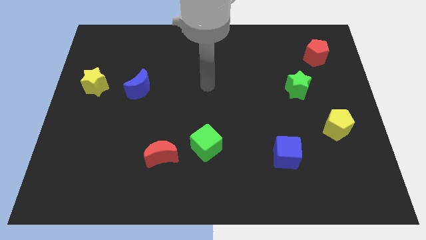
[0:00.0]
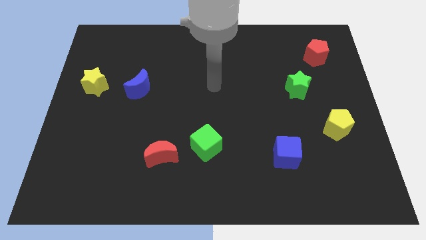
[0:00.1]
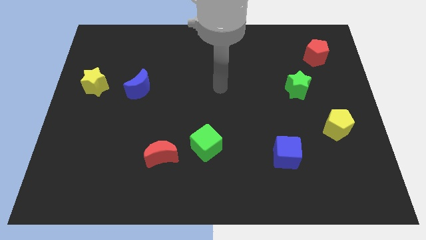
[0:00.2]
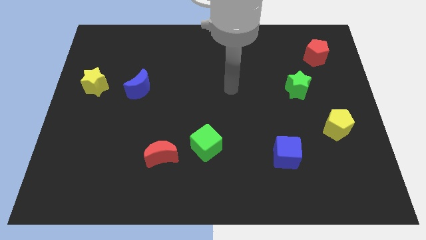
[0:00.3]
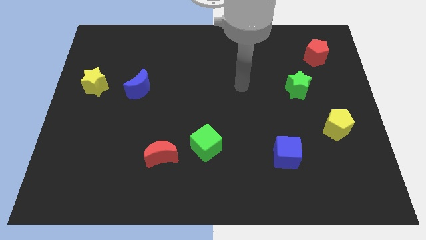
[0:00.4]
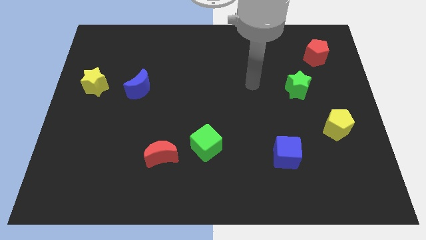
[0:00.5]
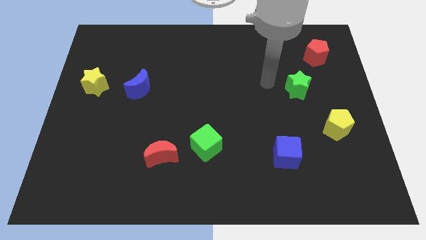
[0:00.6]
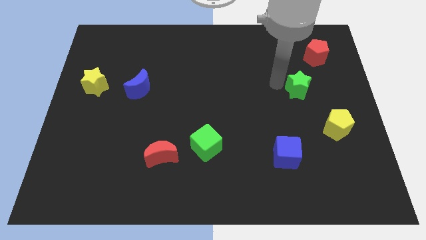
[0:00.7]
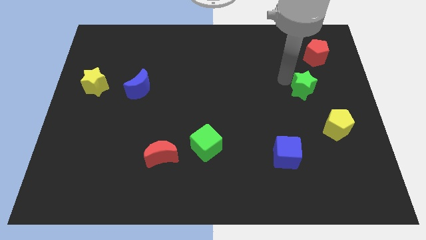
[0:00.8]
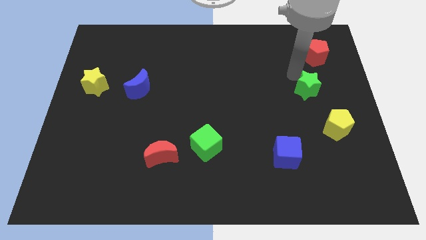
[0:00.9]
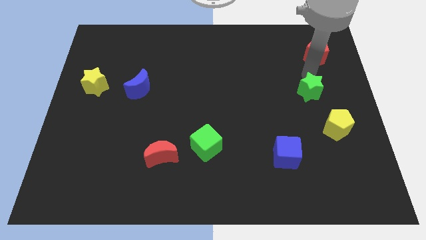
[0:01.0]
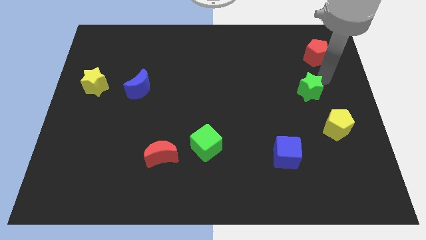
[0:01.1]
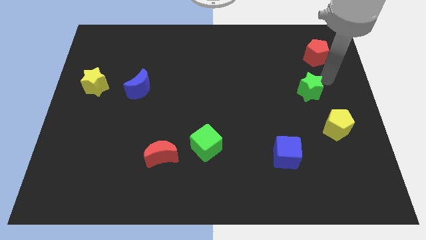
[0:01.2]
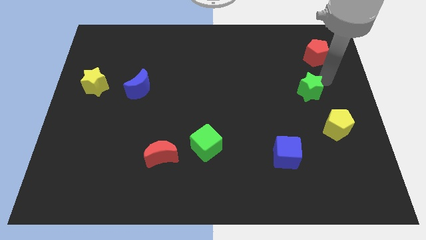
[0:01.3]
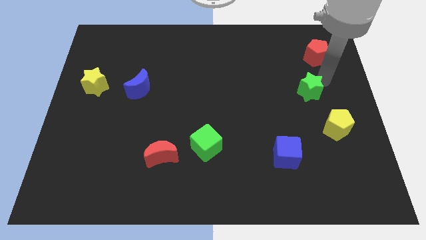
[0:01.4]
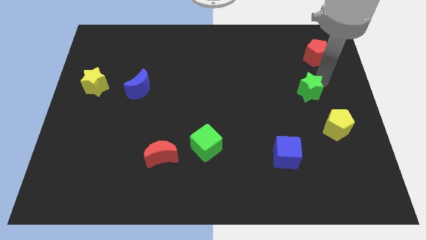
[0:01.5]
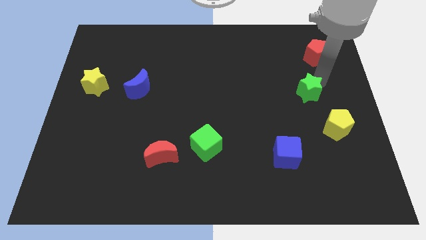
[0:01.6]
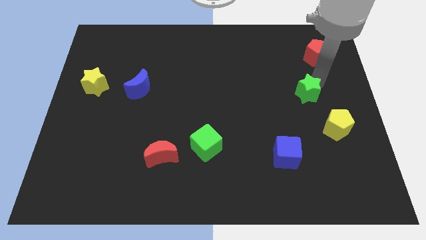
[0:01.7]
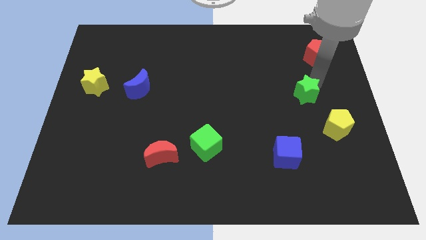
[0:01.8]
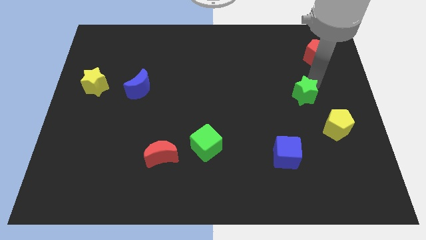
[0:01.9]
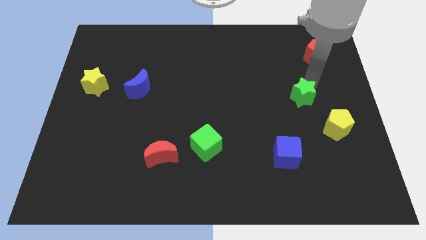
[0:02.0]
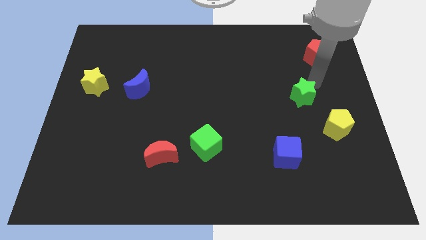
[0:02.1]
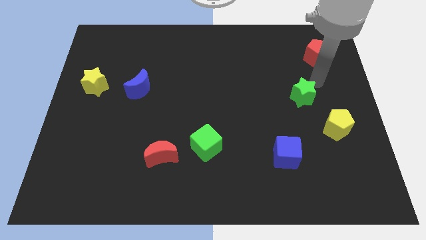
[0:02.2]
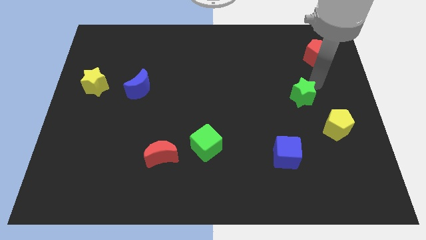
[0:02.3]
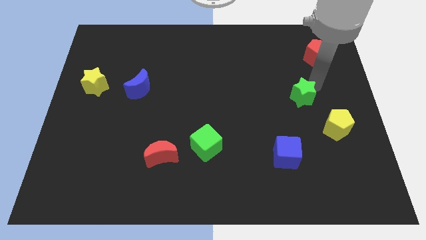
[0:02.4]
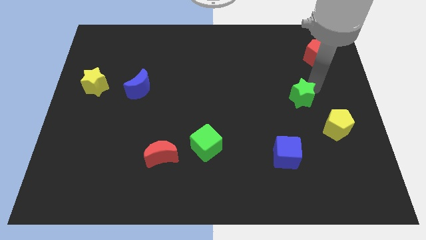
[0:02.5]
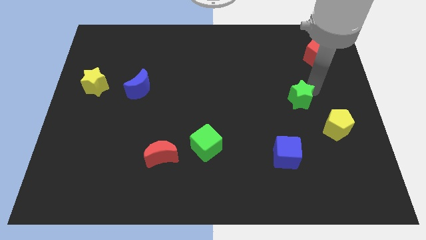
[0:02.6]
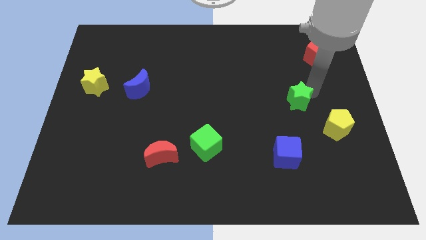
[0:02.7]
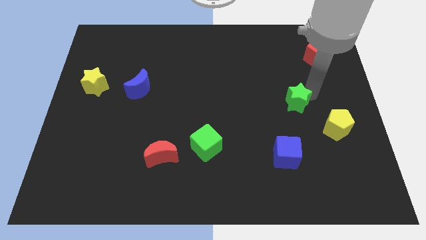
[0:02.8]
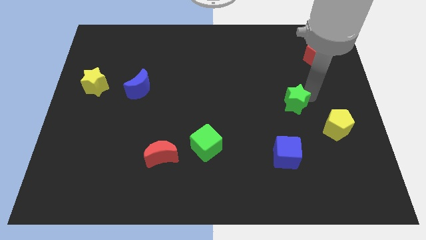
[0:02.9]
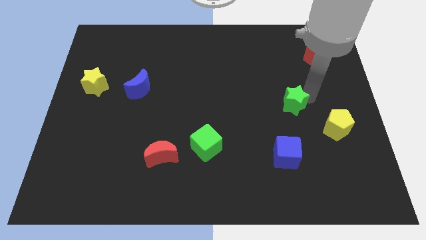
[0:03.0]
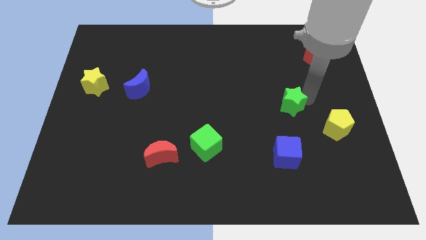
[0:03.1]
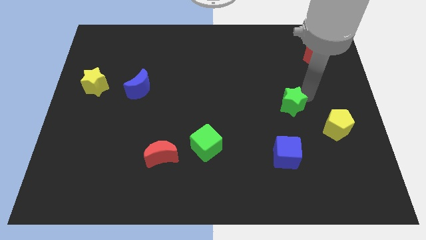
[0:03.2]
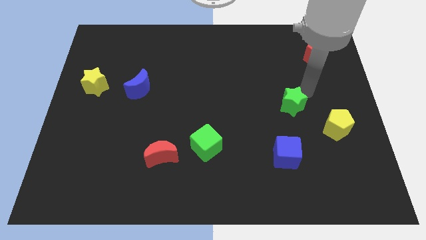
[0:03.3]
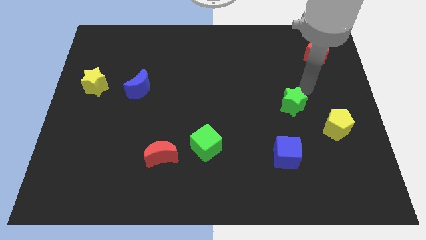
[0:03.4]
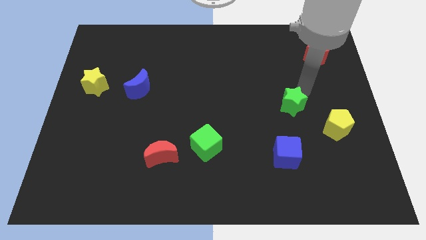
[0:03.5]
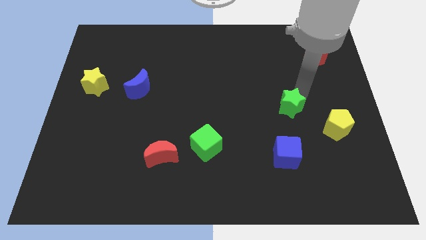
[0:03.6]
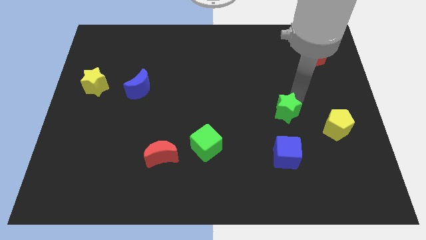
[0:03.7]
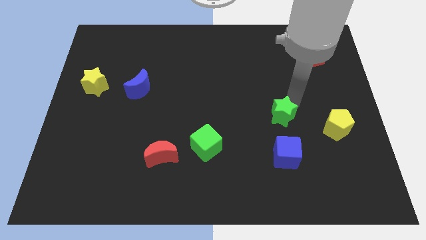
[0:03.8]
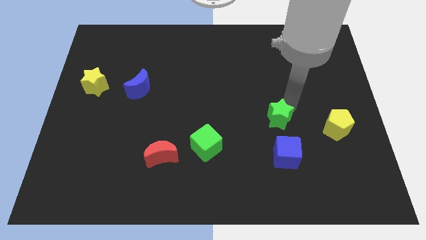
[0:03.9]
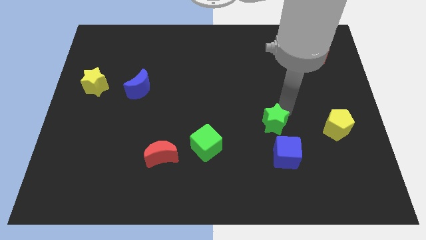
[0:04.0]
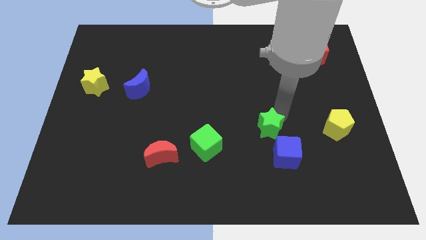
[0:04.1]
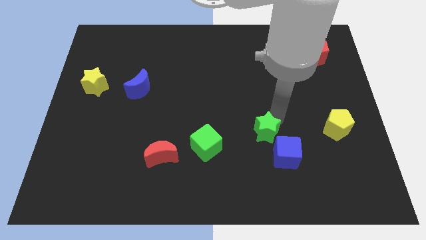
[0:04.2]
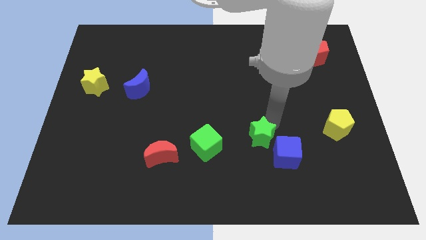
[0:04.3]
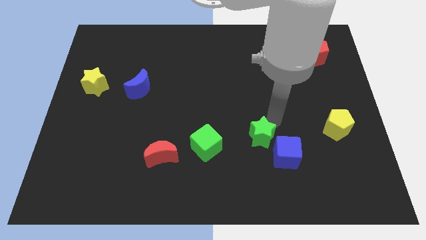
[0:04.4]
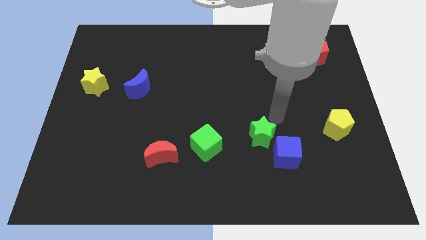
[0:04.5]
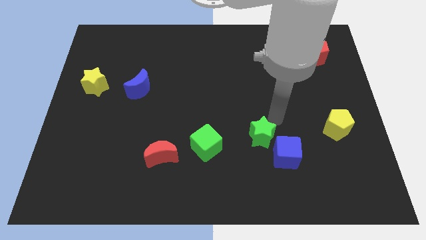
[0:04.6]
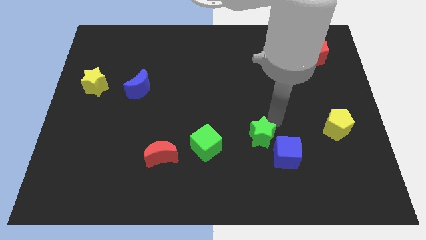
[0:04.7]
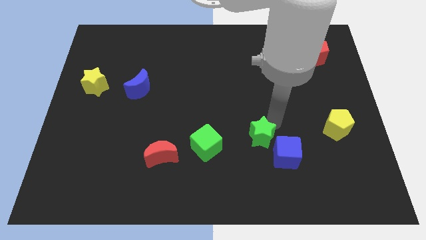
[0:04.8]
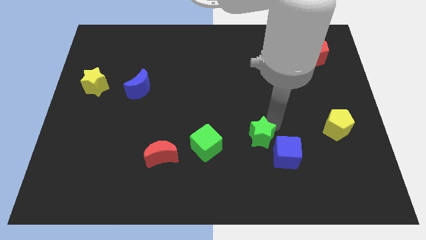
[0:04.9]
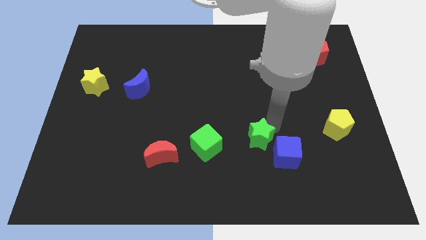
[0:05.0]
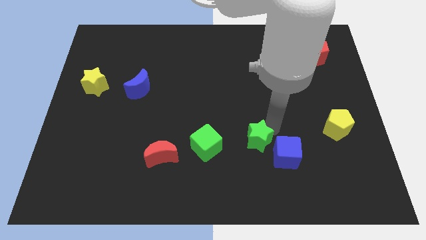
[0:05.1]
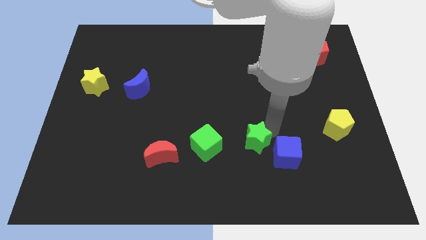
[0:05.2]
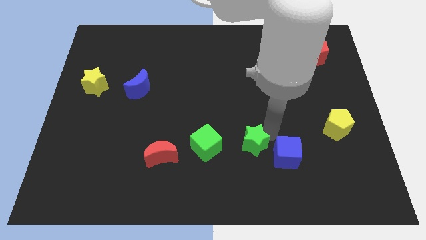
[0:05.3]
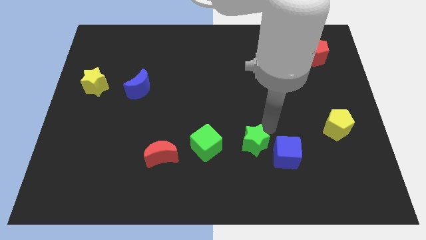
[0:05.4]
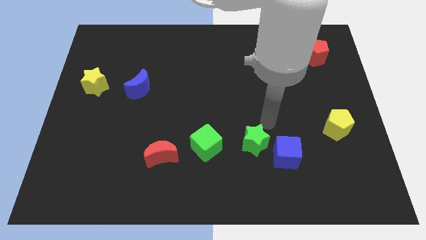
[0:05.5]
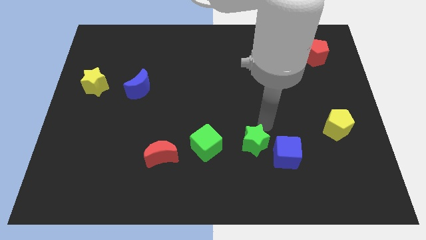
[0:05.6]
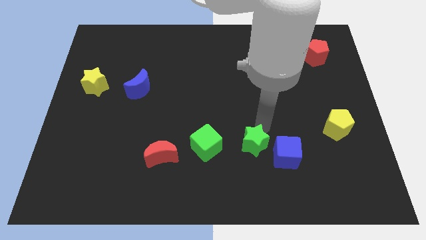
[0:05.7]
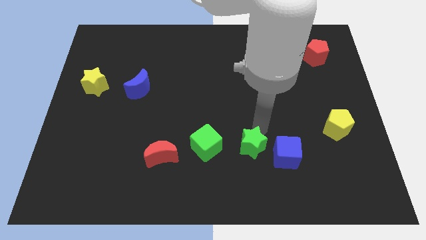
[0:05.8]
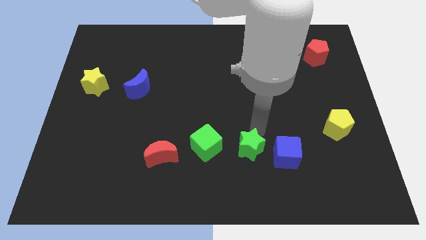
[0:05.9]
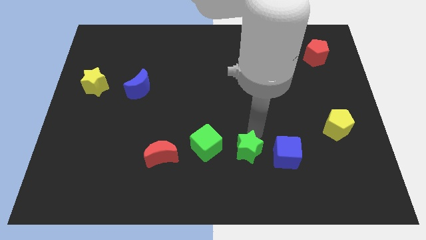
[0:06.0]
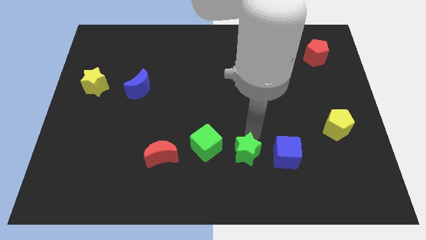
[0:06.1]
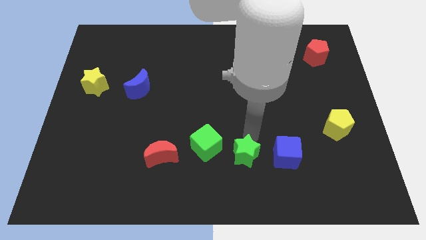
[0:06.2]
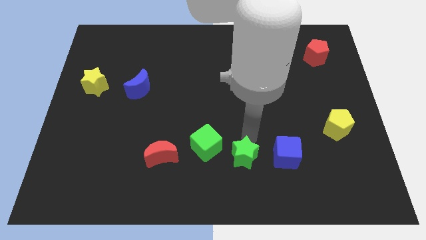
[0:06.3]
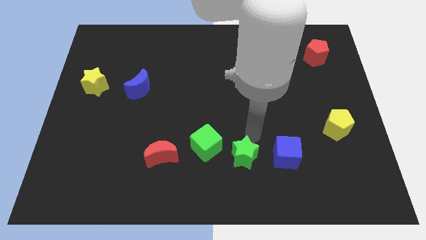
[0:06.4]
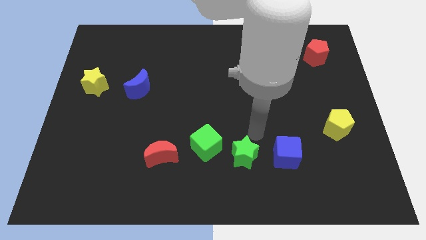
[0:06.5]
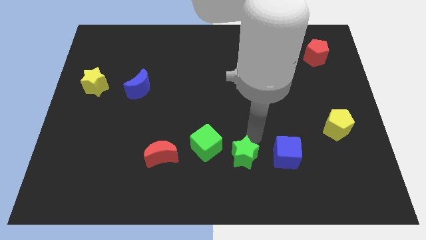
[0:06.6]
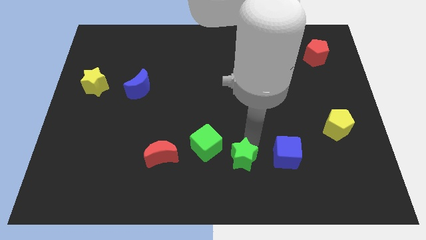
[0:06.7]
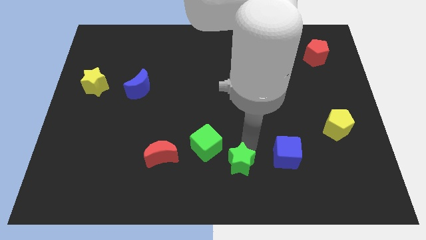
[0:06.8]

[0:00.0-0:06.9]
put the green star to the bottom
